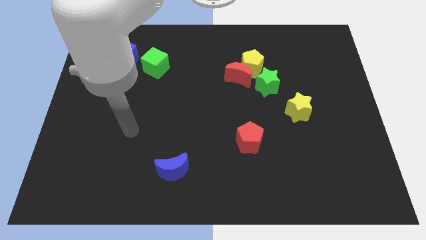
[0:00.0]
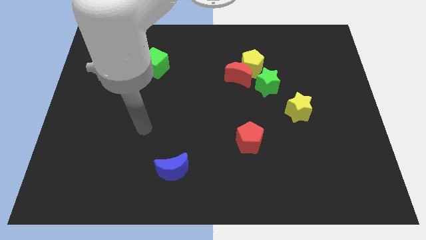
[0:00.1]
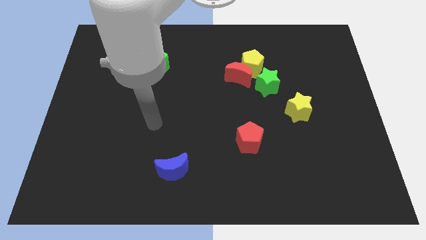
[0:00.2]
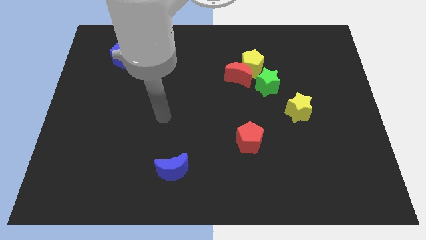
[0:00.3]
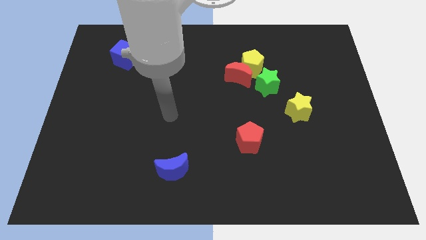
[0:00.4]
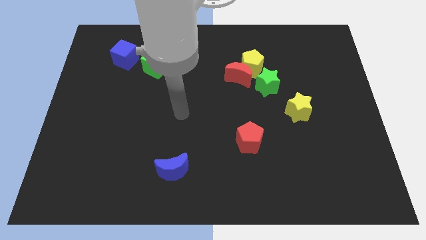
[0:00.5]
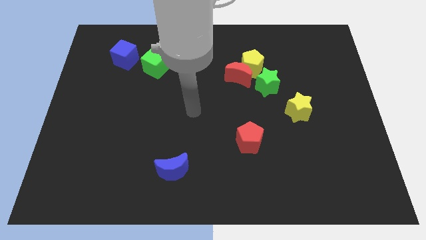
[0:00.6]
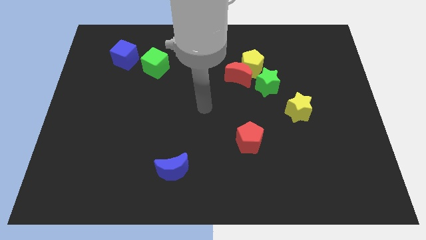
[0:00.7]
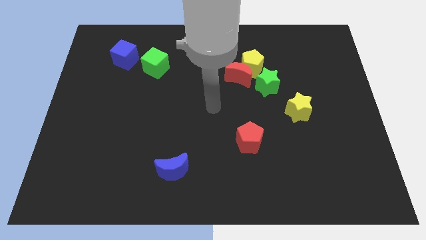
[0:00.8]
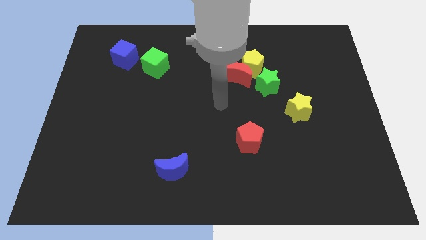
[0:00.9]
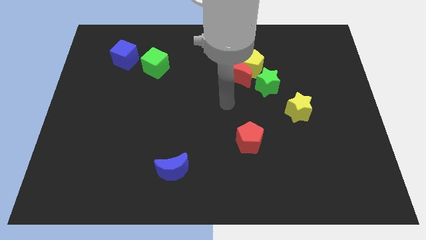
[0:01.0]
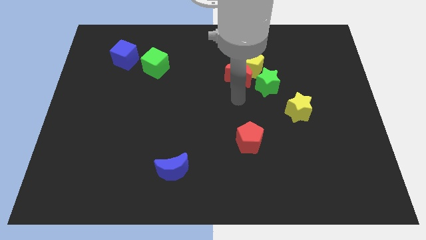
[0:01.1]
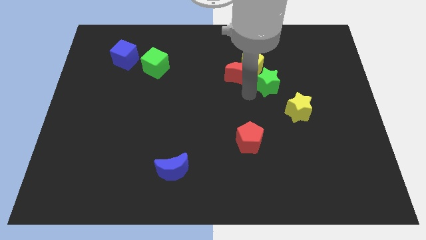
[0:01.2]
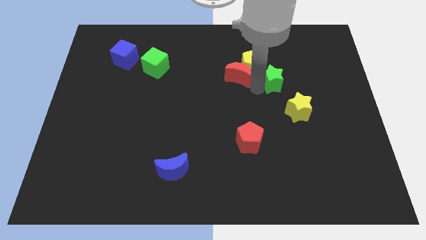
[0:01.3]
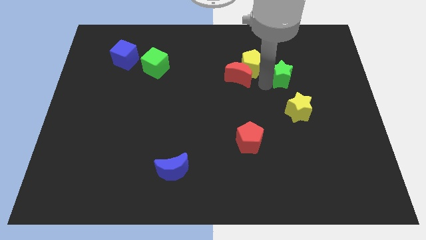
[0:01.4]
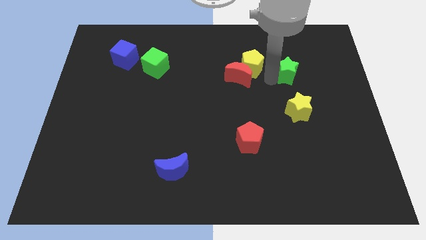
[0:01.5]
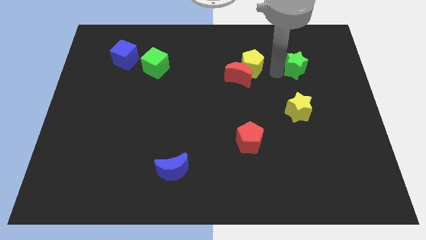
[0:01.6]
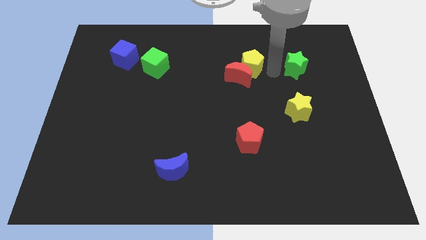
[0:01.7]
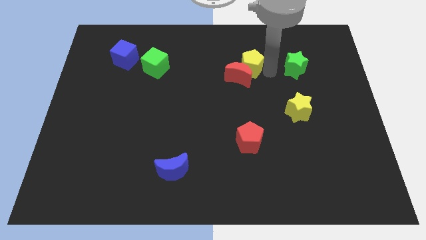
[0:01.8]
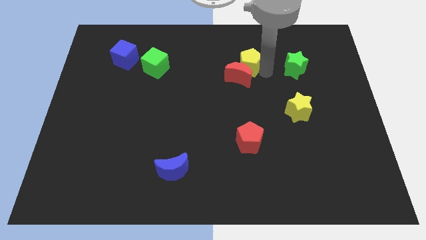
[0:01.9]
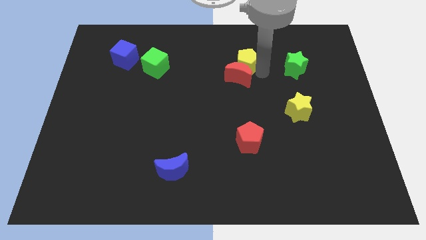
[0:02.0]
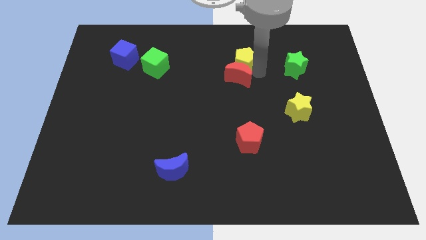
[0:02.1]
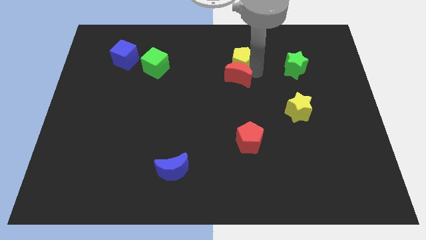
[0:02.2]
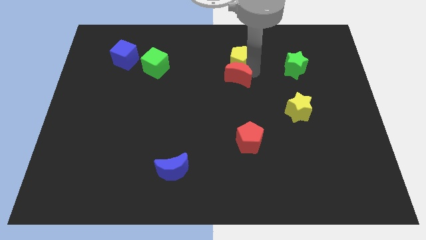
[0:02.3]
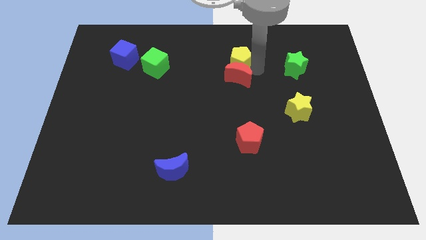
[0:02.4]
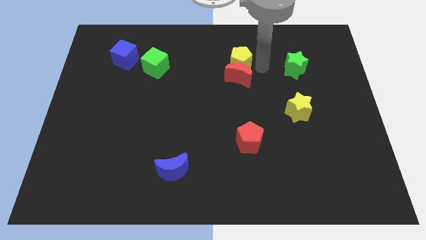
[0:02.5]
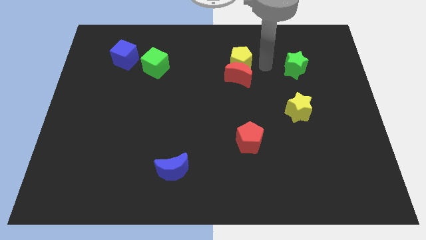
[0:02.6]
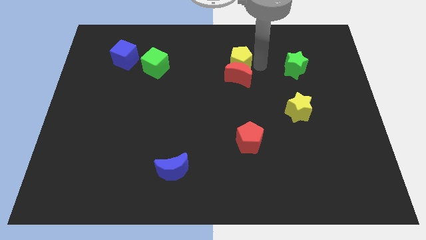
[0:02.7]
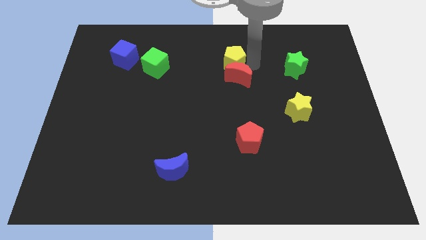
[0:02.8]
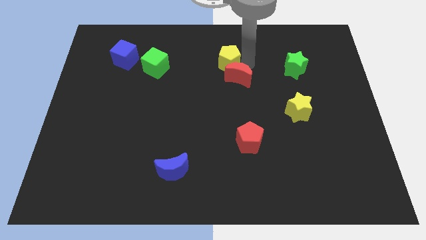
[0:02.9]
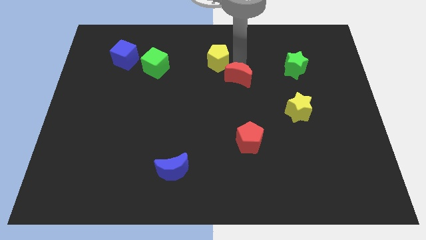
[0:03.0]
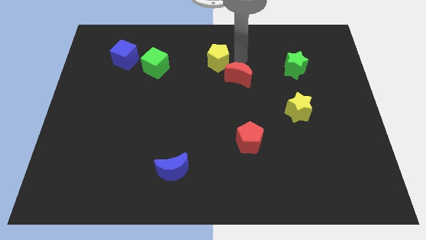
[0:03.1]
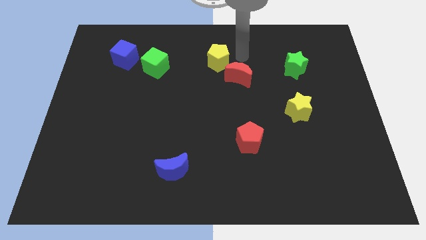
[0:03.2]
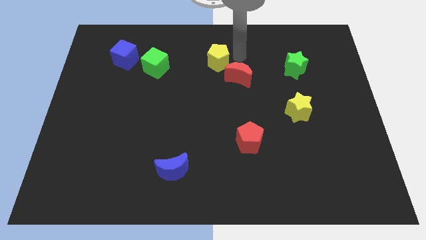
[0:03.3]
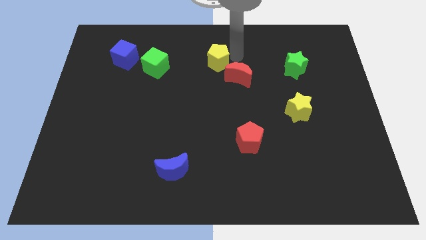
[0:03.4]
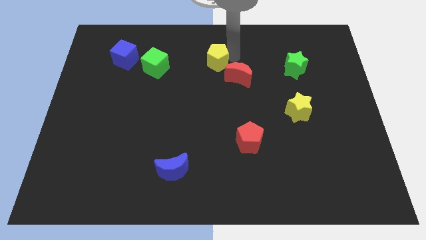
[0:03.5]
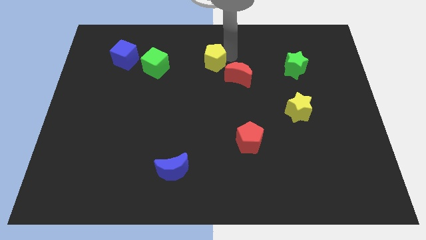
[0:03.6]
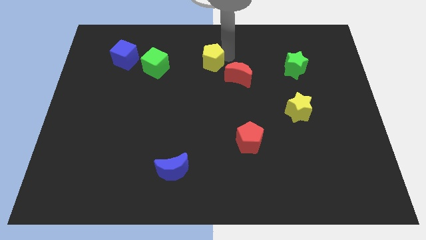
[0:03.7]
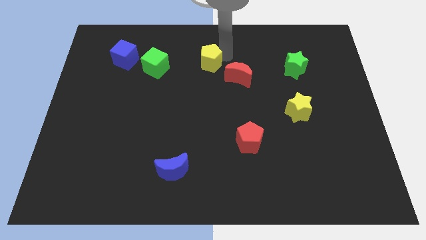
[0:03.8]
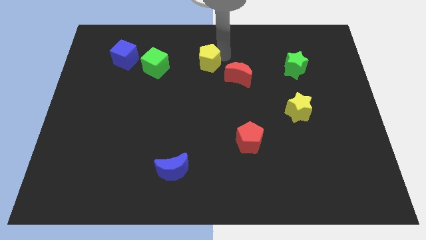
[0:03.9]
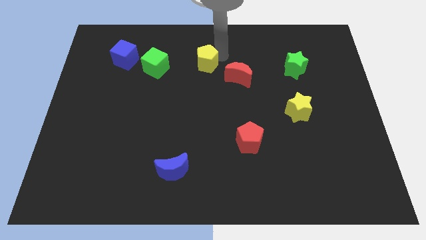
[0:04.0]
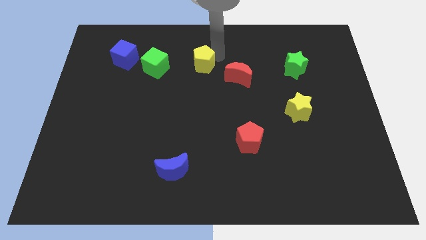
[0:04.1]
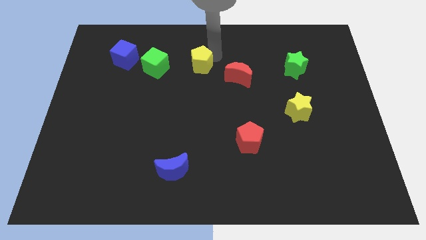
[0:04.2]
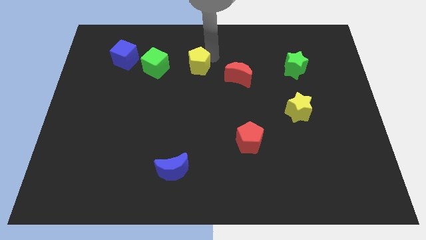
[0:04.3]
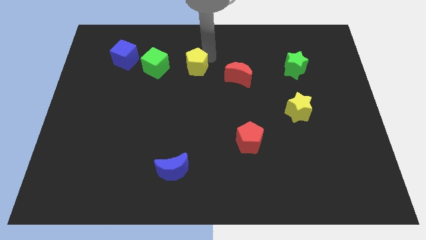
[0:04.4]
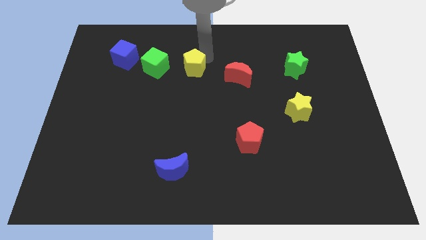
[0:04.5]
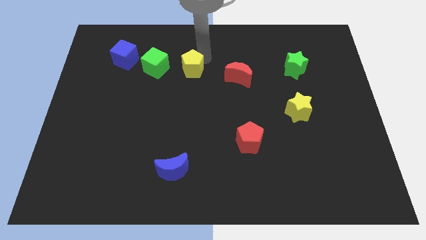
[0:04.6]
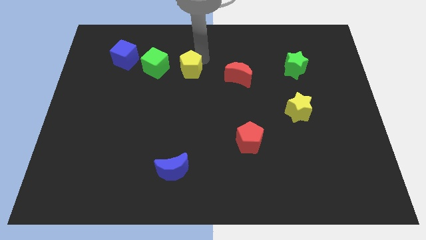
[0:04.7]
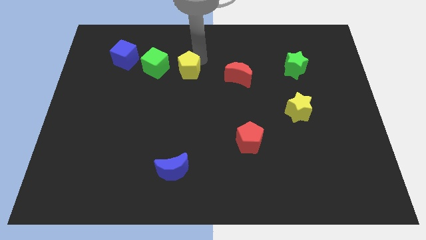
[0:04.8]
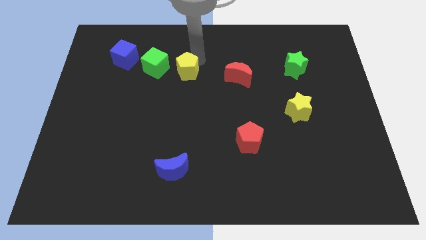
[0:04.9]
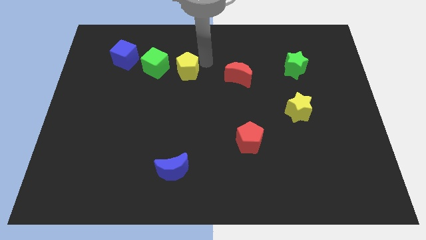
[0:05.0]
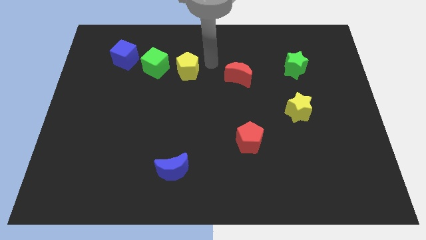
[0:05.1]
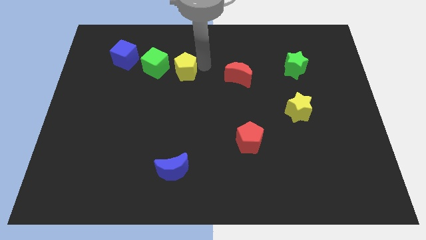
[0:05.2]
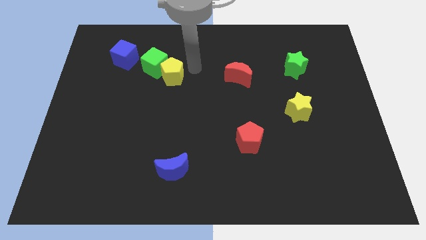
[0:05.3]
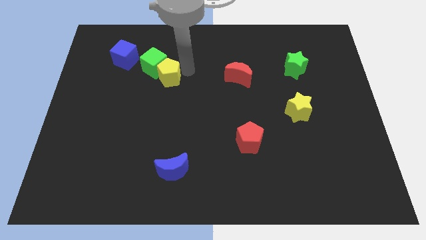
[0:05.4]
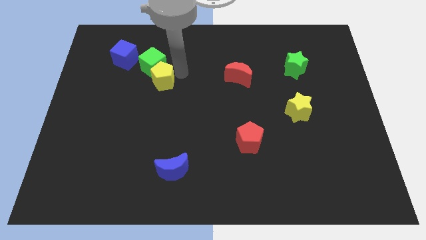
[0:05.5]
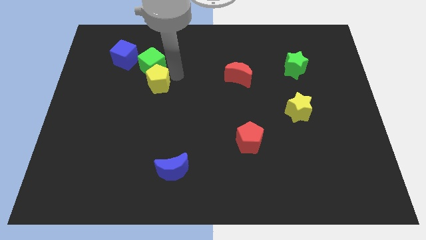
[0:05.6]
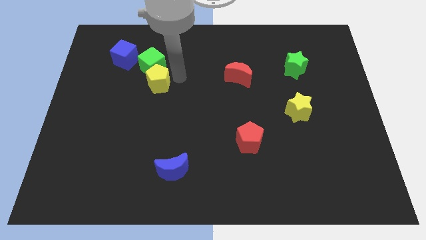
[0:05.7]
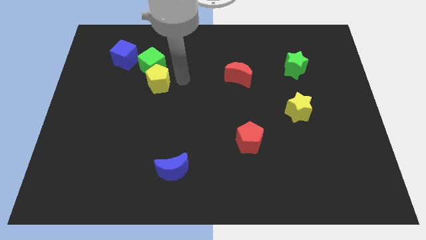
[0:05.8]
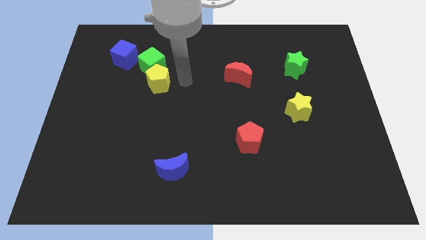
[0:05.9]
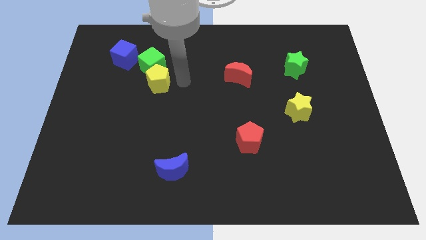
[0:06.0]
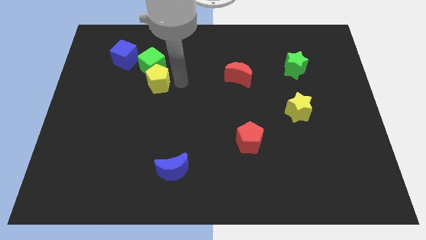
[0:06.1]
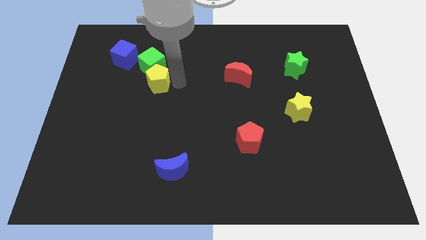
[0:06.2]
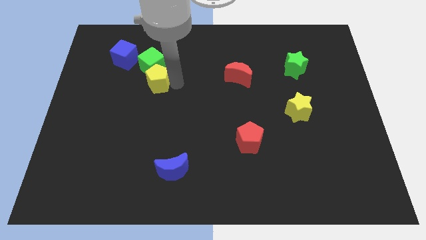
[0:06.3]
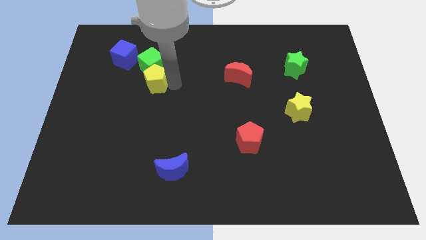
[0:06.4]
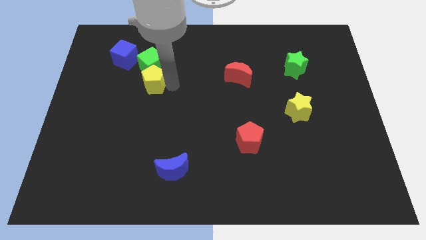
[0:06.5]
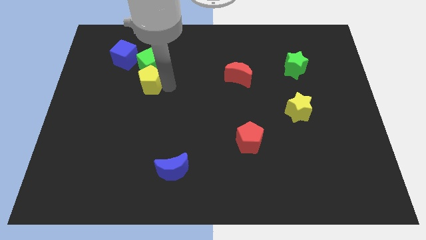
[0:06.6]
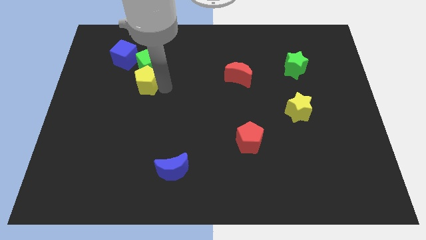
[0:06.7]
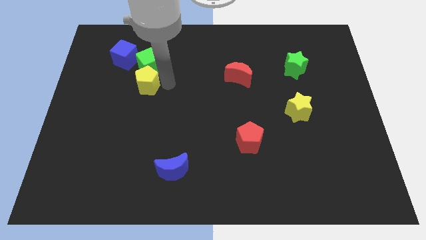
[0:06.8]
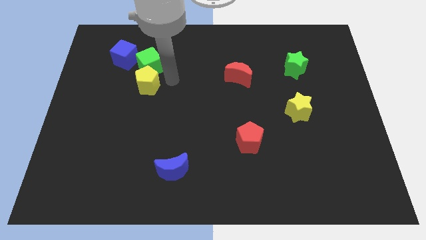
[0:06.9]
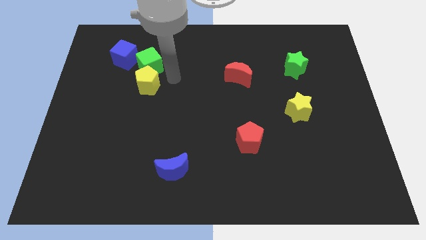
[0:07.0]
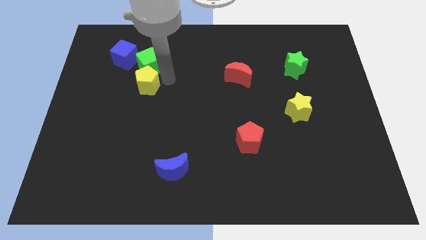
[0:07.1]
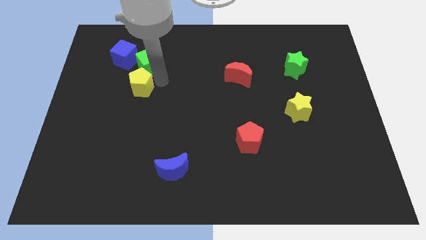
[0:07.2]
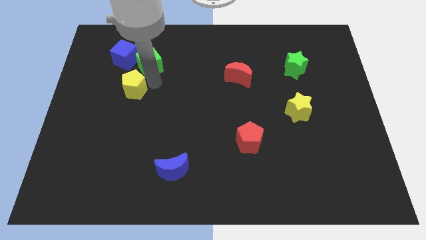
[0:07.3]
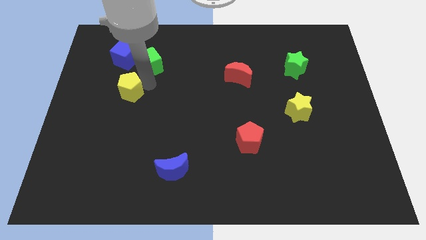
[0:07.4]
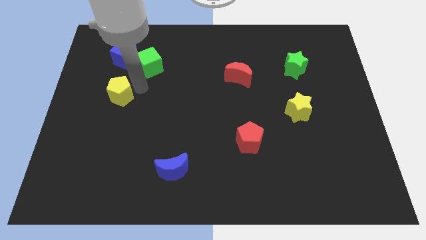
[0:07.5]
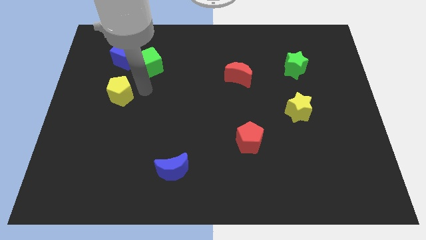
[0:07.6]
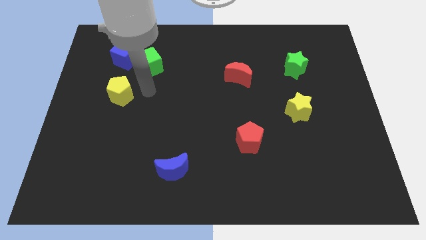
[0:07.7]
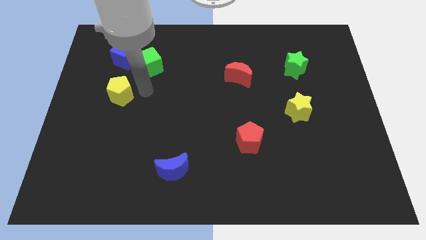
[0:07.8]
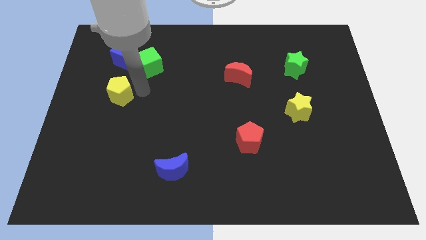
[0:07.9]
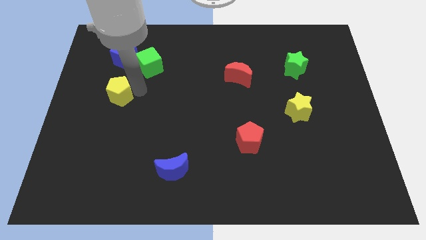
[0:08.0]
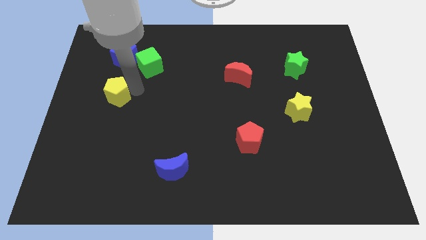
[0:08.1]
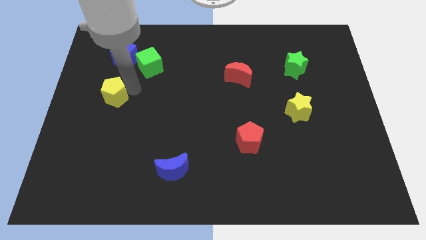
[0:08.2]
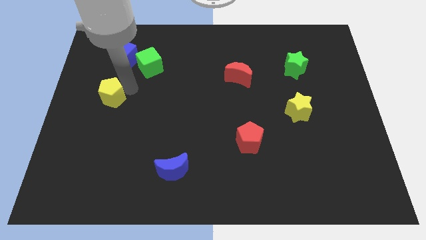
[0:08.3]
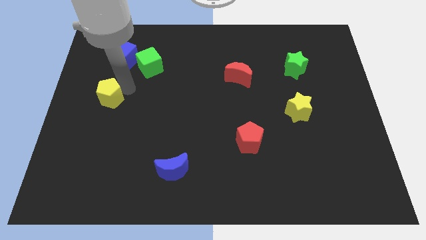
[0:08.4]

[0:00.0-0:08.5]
put the yellow pentagon to the left side
